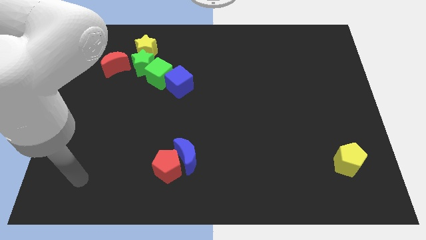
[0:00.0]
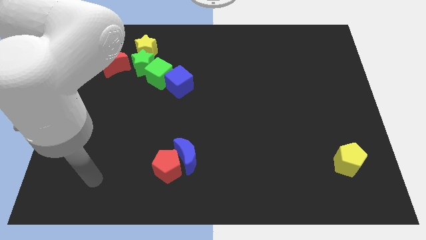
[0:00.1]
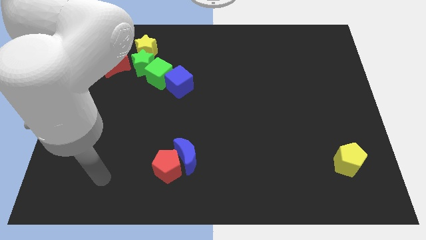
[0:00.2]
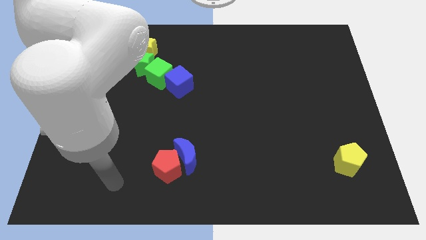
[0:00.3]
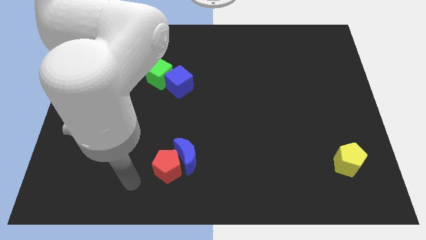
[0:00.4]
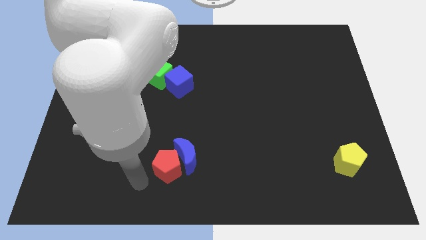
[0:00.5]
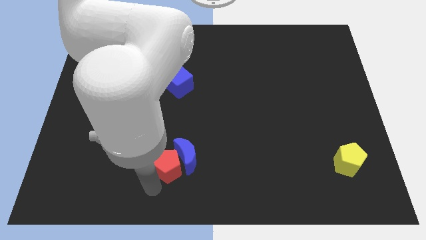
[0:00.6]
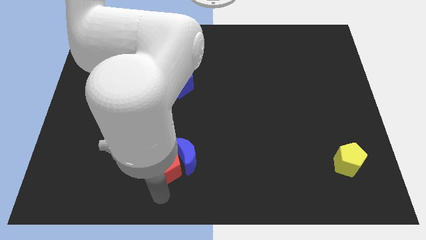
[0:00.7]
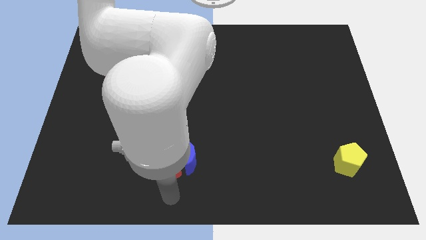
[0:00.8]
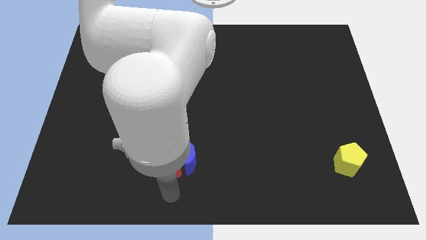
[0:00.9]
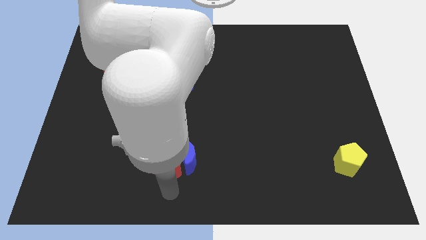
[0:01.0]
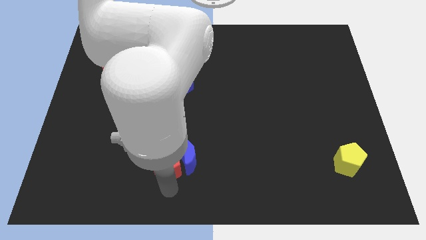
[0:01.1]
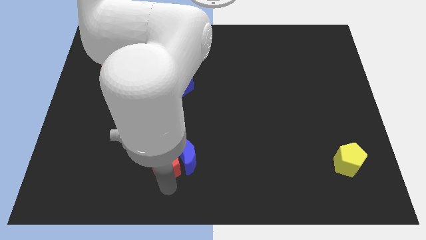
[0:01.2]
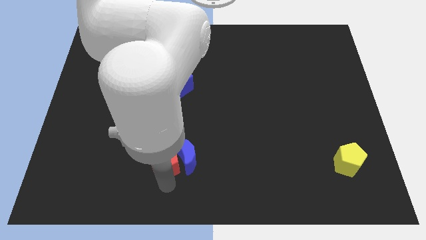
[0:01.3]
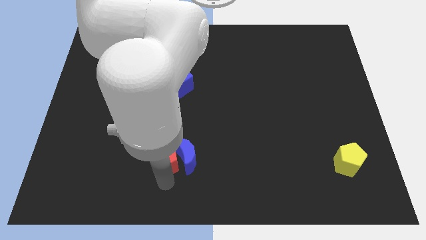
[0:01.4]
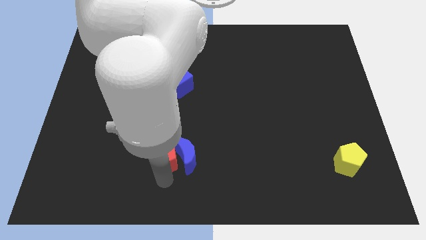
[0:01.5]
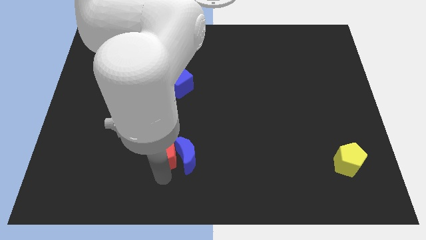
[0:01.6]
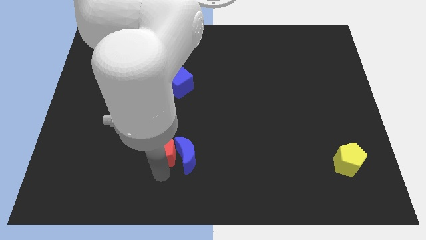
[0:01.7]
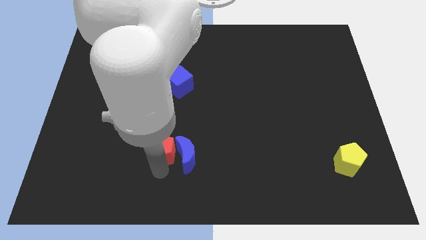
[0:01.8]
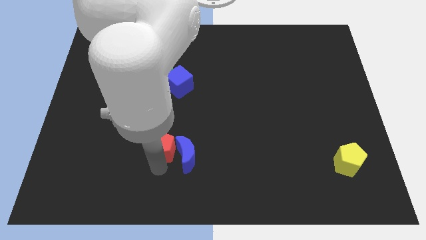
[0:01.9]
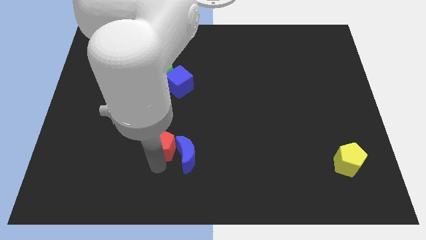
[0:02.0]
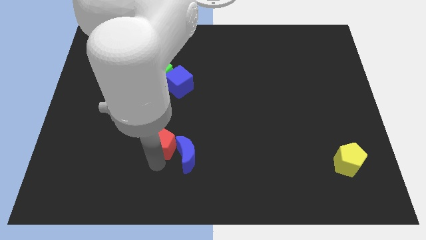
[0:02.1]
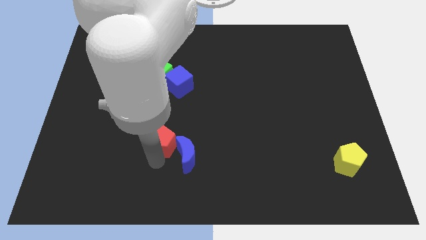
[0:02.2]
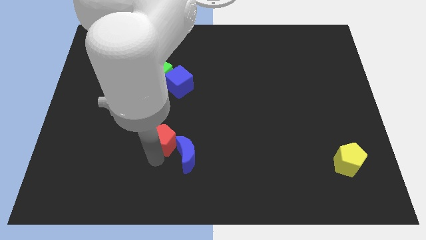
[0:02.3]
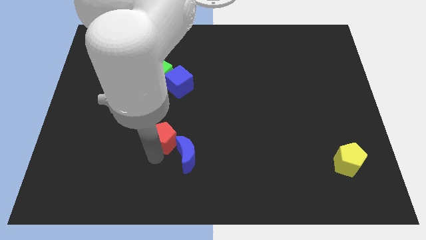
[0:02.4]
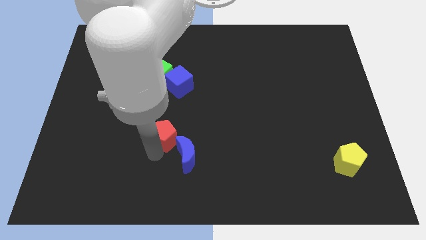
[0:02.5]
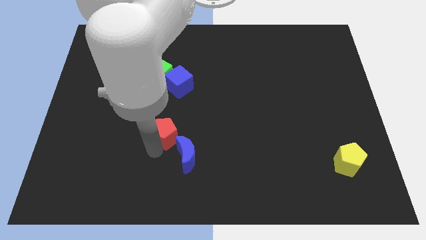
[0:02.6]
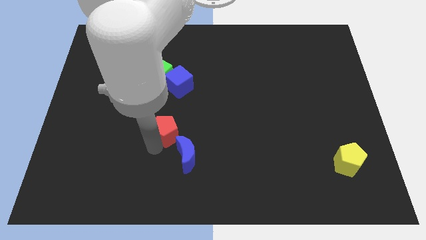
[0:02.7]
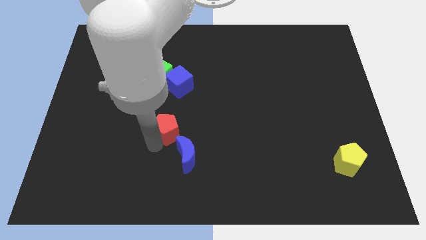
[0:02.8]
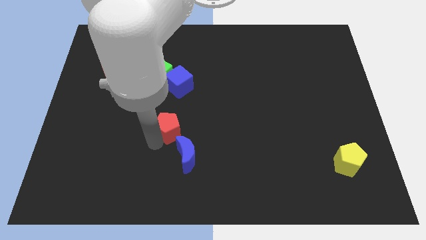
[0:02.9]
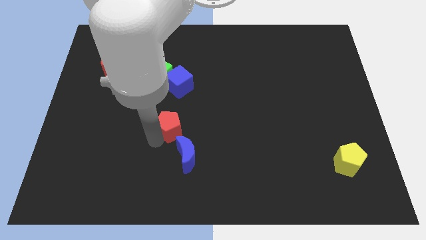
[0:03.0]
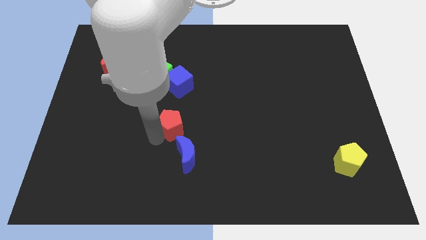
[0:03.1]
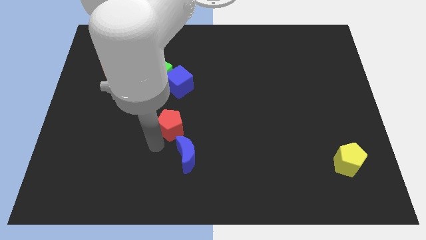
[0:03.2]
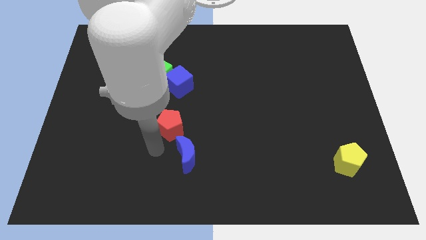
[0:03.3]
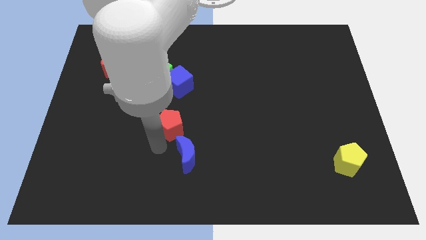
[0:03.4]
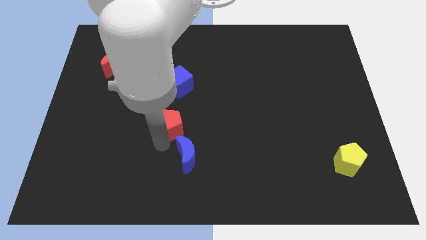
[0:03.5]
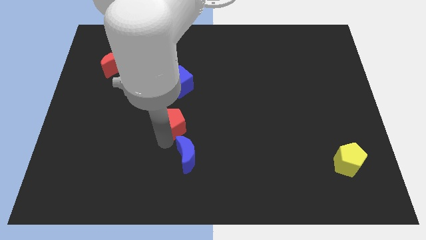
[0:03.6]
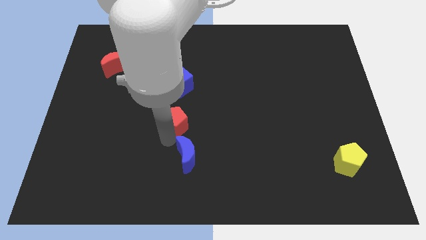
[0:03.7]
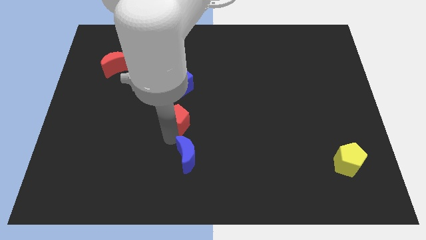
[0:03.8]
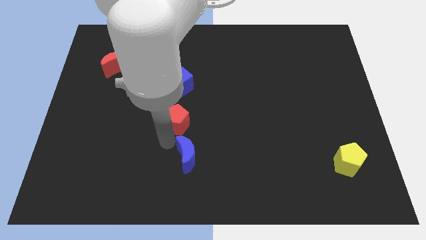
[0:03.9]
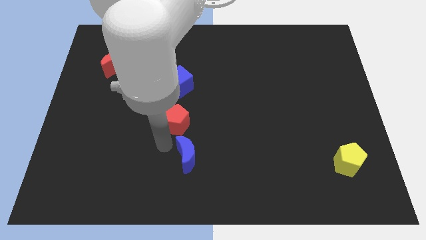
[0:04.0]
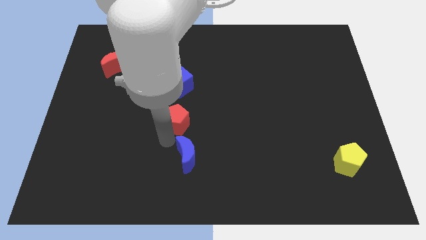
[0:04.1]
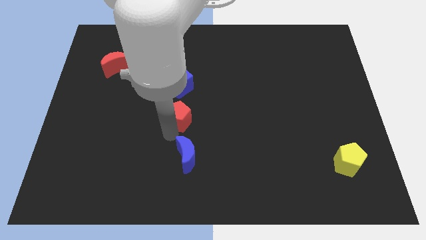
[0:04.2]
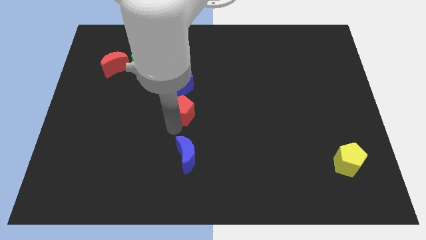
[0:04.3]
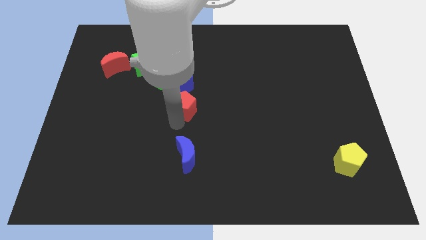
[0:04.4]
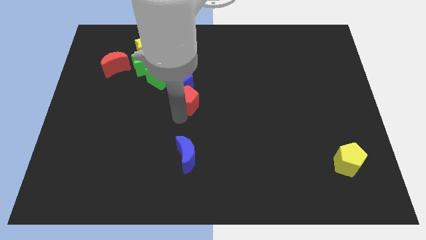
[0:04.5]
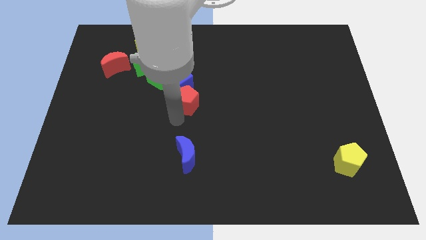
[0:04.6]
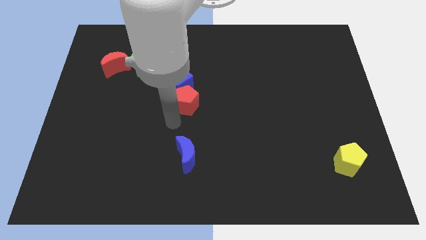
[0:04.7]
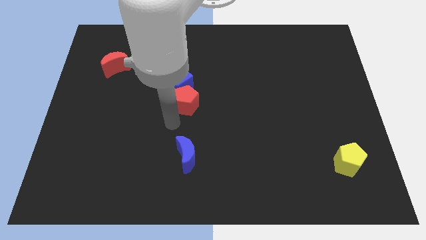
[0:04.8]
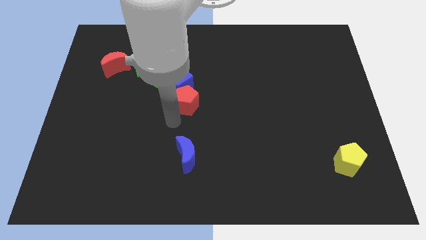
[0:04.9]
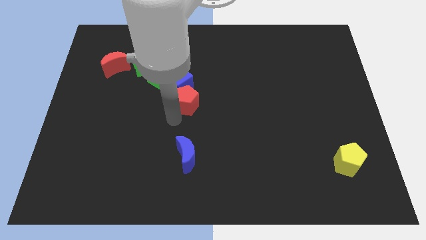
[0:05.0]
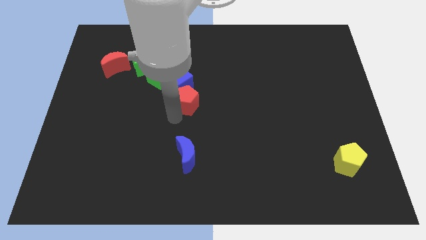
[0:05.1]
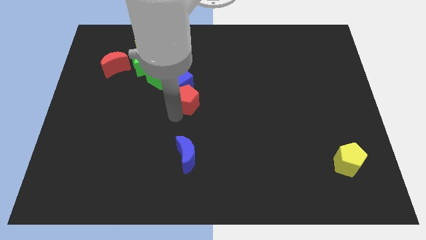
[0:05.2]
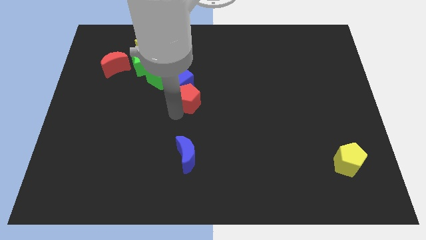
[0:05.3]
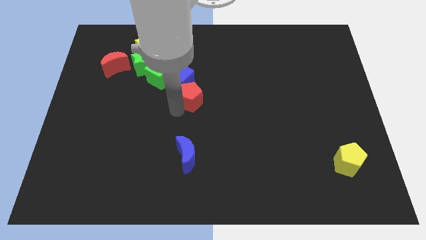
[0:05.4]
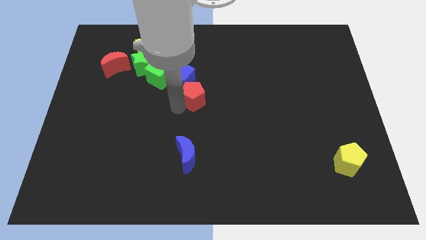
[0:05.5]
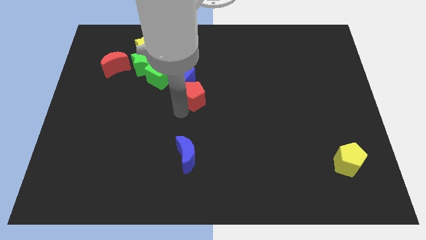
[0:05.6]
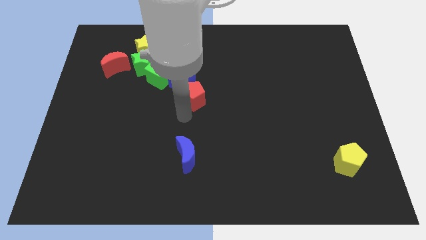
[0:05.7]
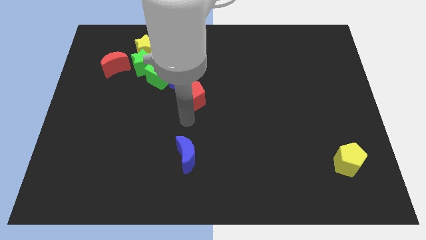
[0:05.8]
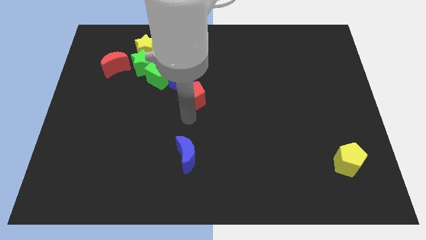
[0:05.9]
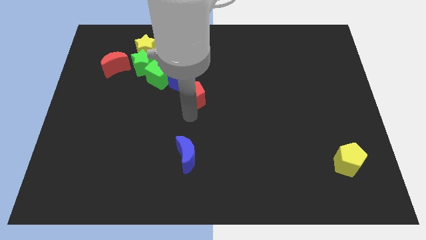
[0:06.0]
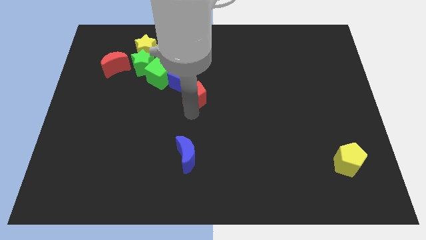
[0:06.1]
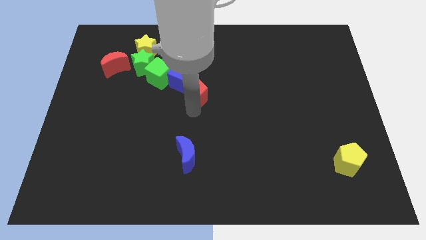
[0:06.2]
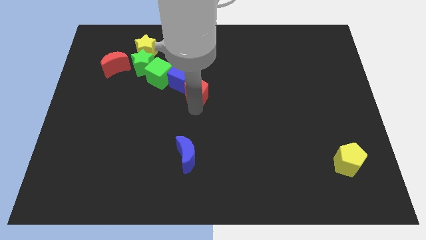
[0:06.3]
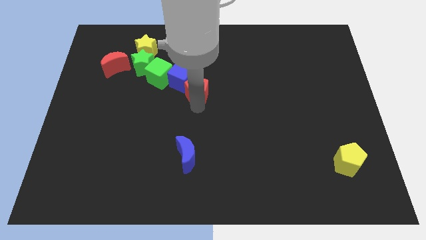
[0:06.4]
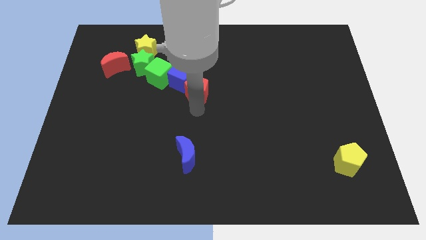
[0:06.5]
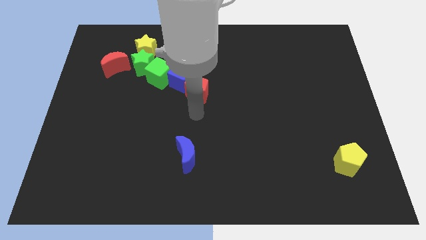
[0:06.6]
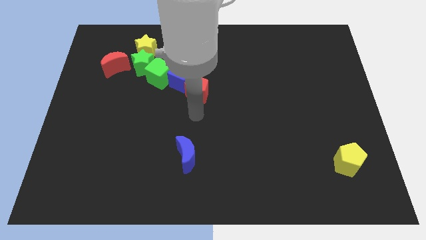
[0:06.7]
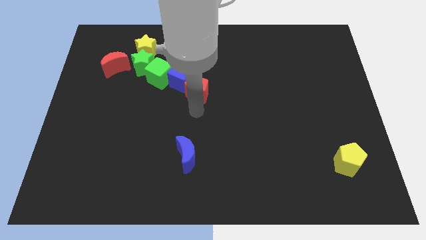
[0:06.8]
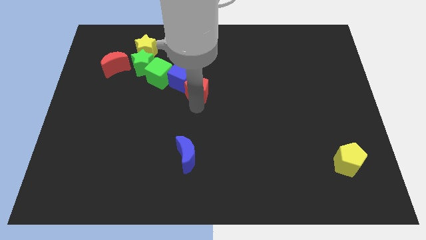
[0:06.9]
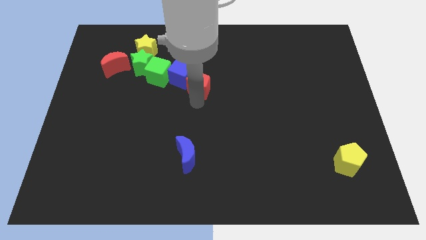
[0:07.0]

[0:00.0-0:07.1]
slide the red pentagon up

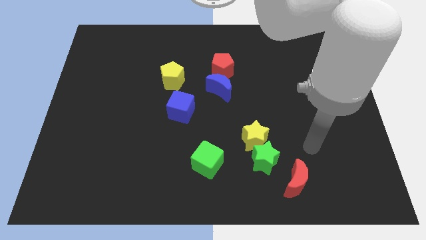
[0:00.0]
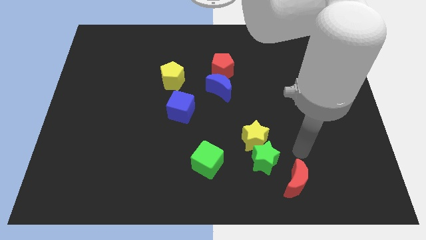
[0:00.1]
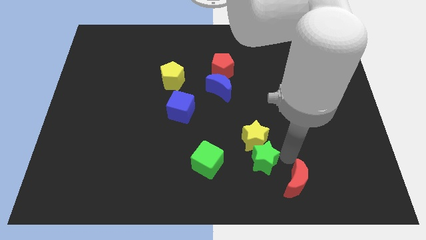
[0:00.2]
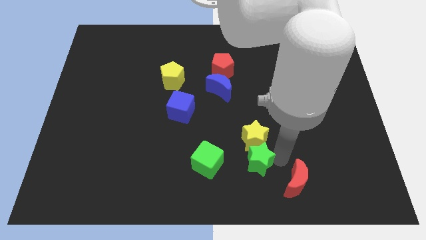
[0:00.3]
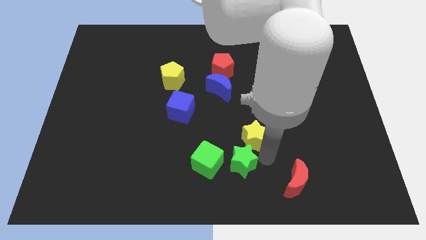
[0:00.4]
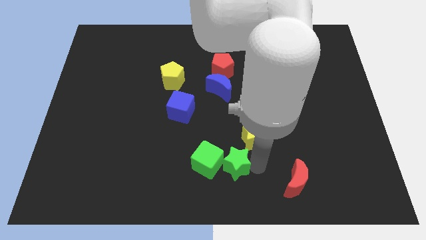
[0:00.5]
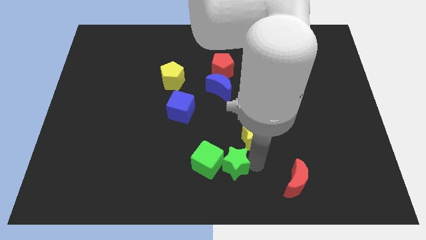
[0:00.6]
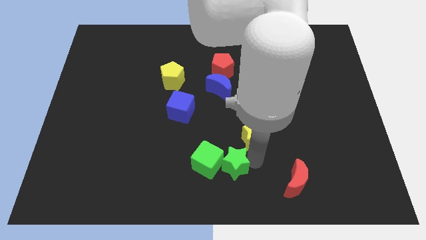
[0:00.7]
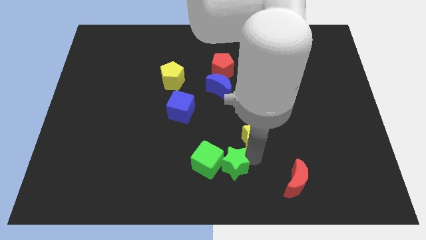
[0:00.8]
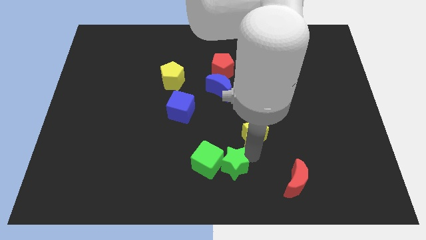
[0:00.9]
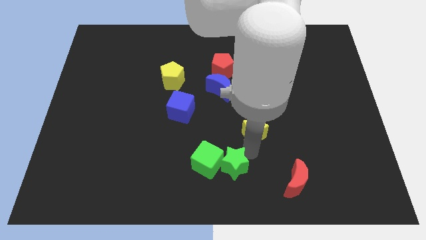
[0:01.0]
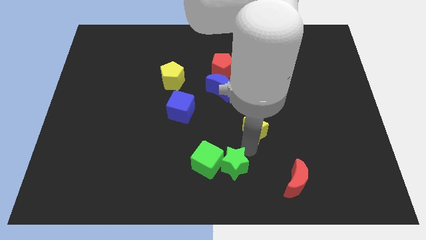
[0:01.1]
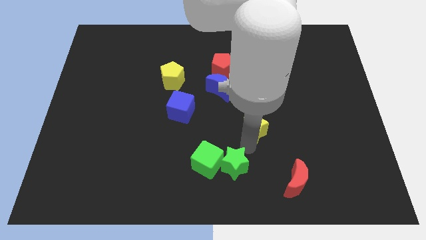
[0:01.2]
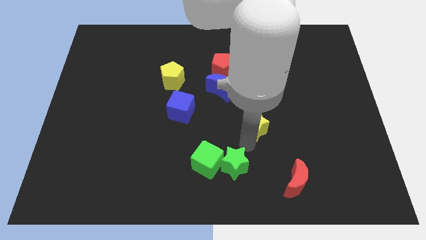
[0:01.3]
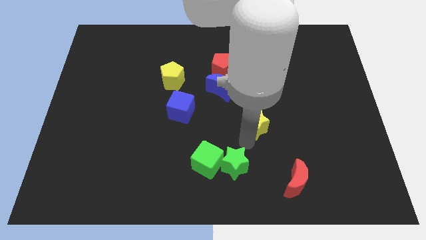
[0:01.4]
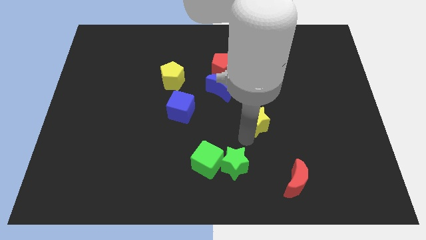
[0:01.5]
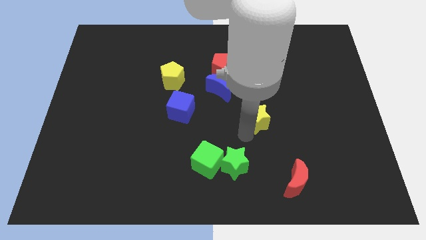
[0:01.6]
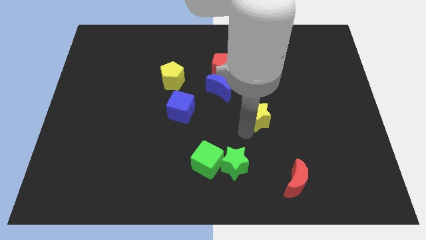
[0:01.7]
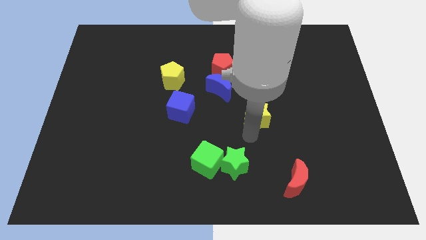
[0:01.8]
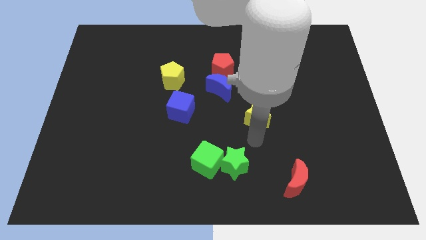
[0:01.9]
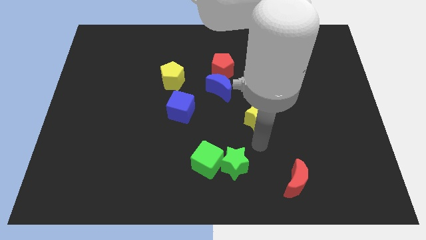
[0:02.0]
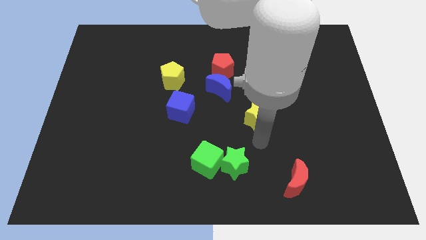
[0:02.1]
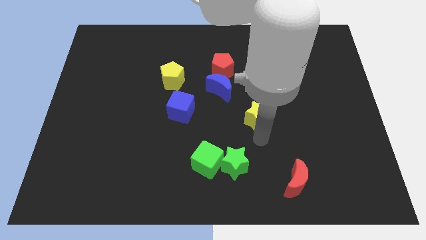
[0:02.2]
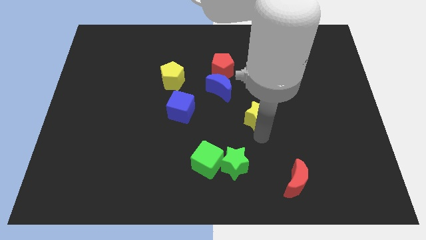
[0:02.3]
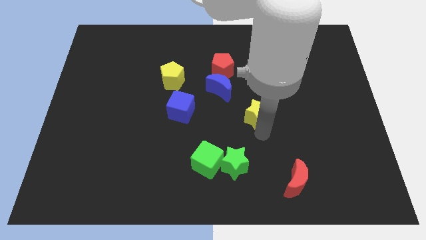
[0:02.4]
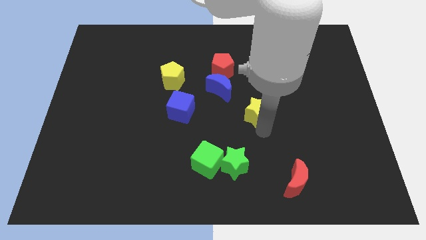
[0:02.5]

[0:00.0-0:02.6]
push the yellow star a bit up
